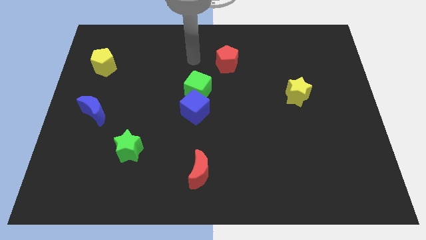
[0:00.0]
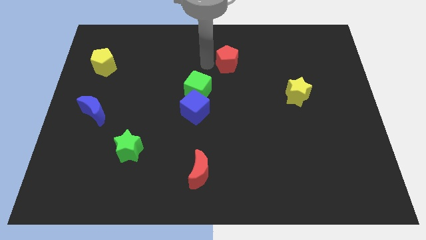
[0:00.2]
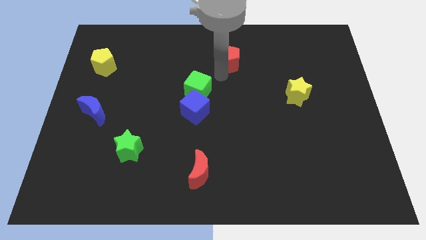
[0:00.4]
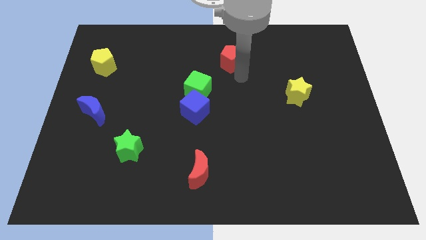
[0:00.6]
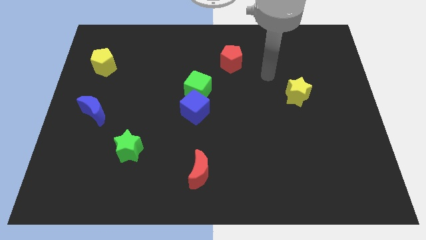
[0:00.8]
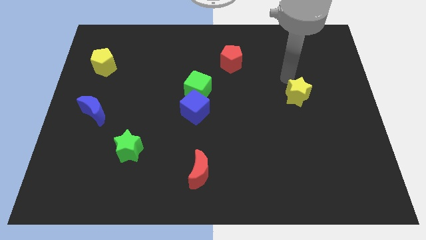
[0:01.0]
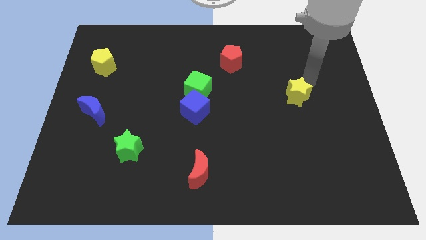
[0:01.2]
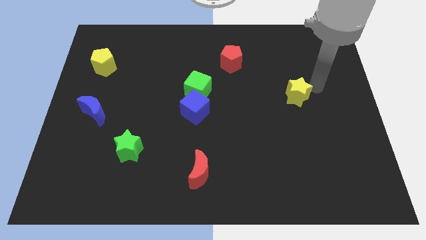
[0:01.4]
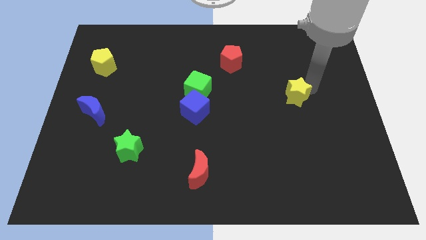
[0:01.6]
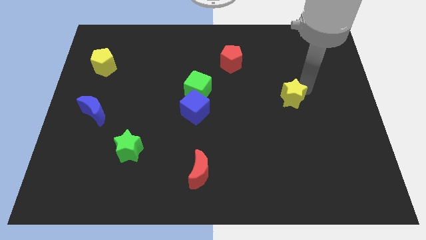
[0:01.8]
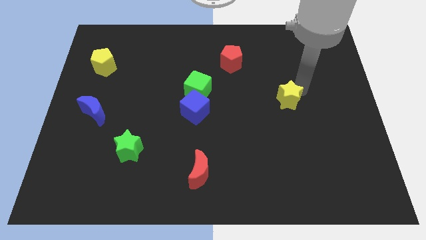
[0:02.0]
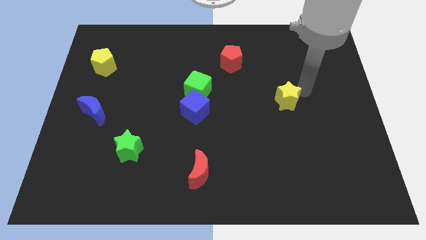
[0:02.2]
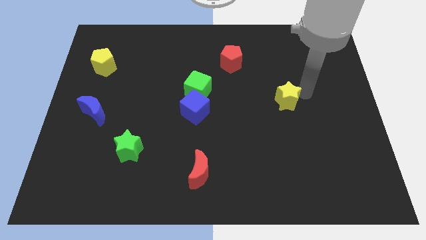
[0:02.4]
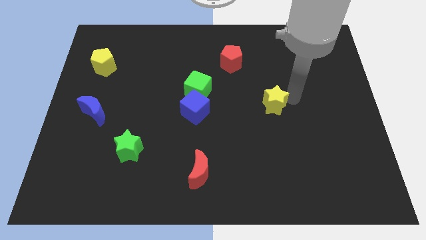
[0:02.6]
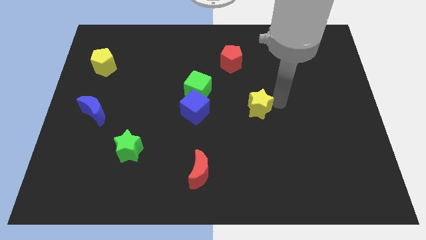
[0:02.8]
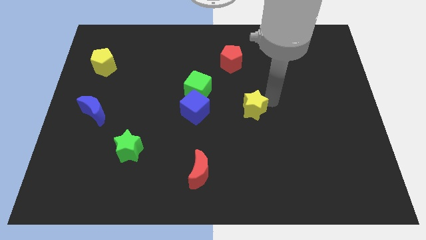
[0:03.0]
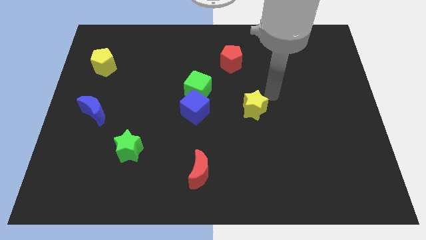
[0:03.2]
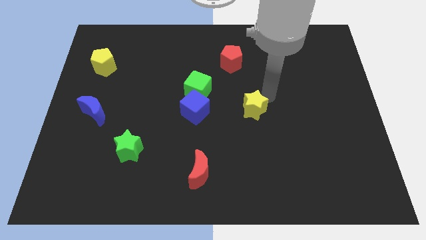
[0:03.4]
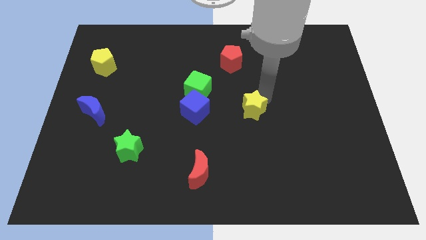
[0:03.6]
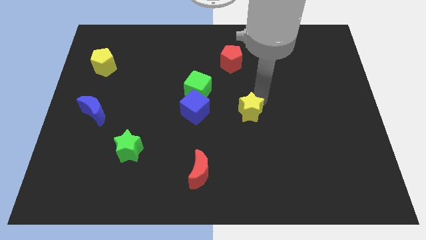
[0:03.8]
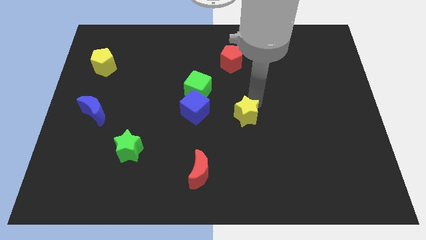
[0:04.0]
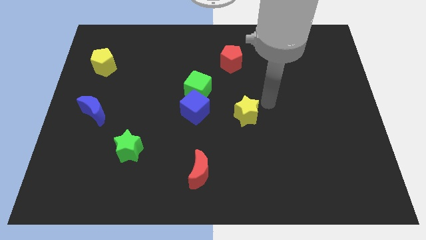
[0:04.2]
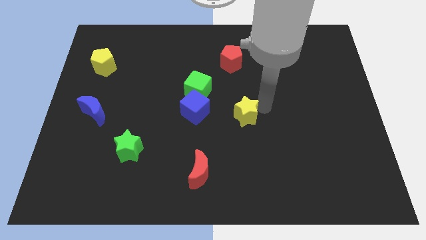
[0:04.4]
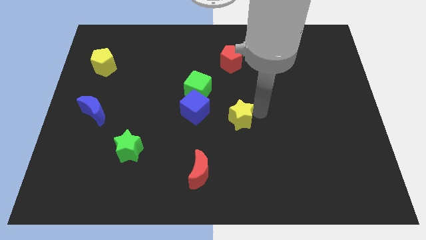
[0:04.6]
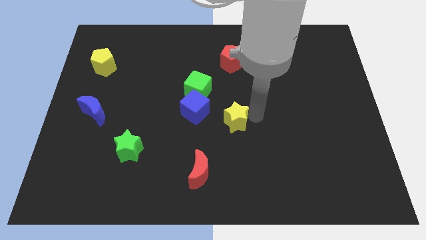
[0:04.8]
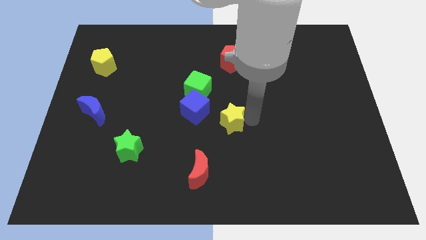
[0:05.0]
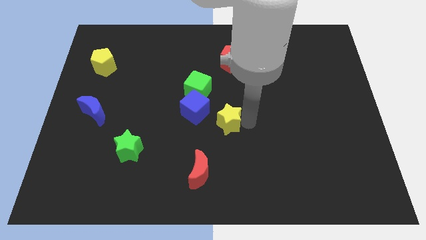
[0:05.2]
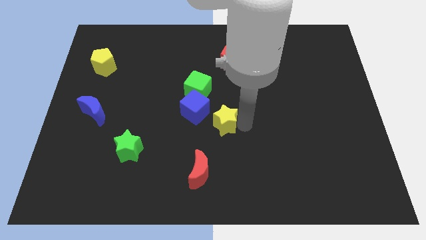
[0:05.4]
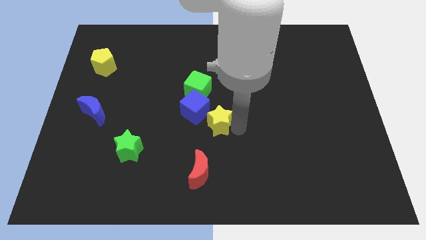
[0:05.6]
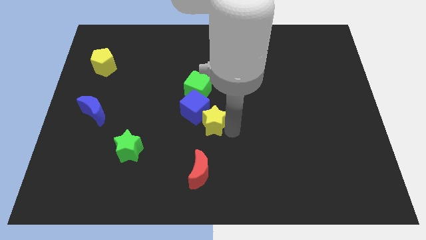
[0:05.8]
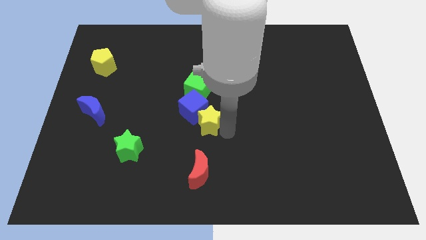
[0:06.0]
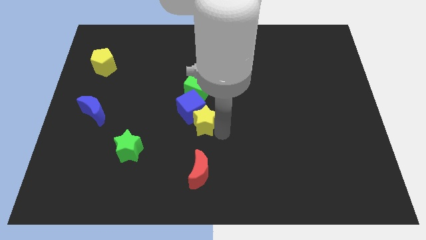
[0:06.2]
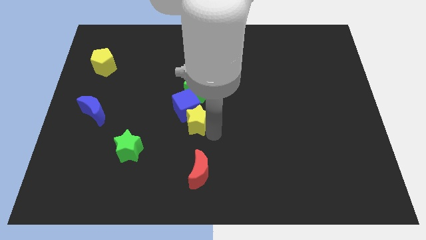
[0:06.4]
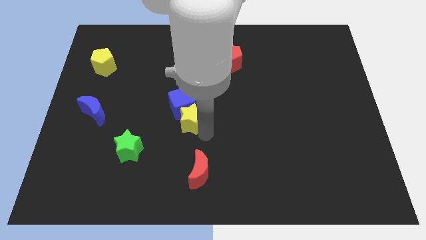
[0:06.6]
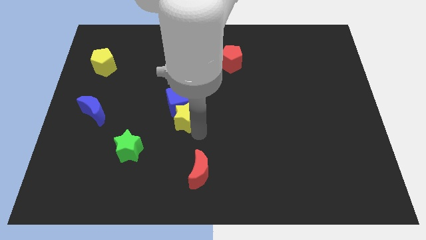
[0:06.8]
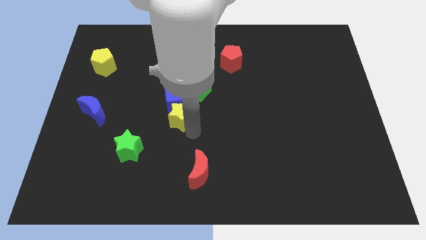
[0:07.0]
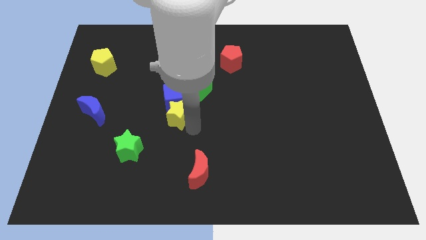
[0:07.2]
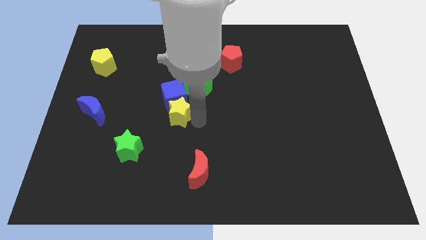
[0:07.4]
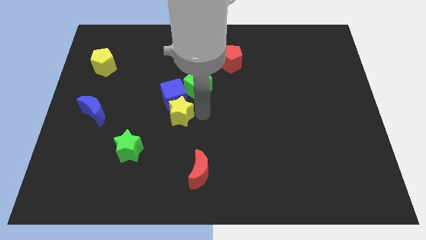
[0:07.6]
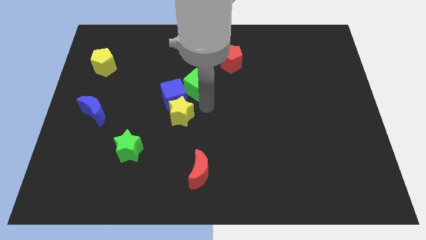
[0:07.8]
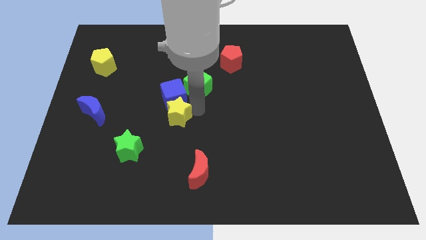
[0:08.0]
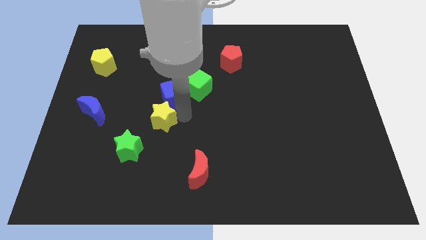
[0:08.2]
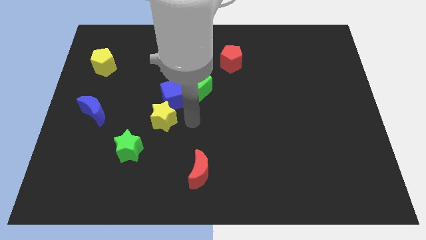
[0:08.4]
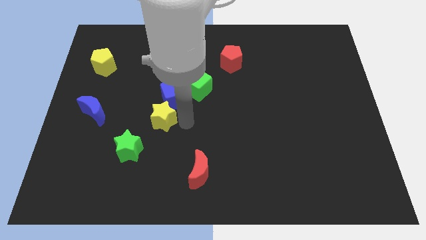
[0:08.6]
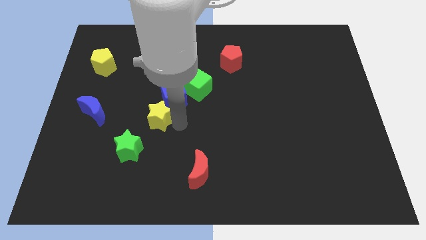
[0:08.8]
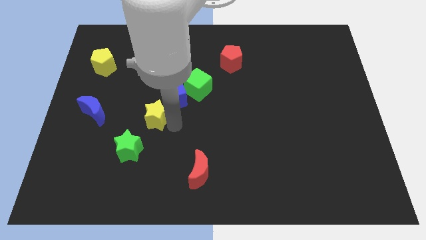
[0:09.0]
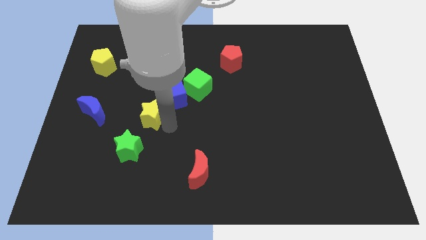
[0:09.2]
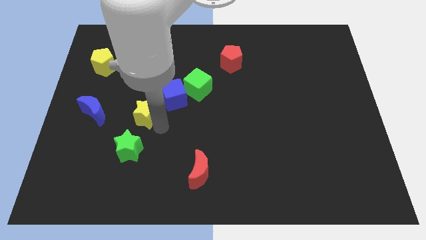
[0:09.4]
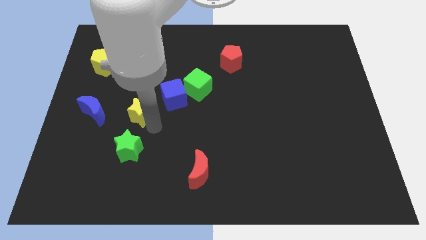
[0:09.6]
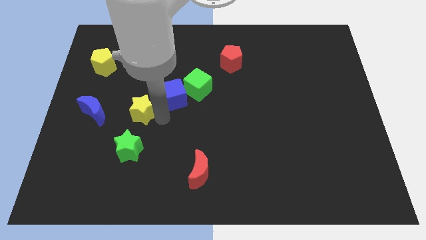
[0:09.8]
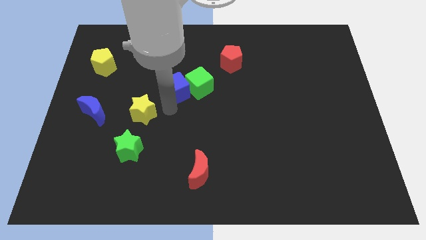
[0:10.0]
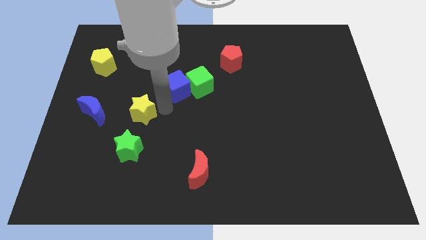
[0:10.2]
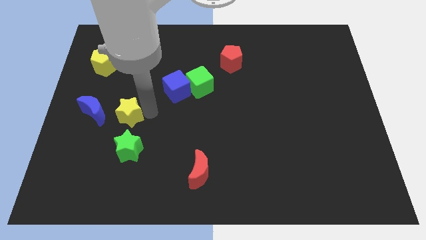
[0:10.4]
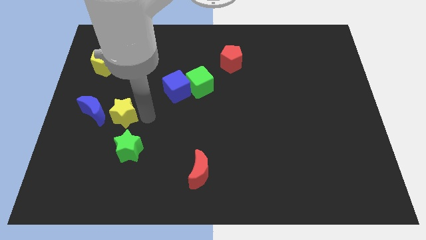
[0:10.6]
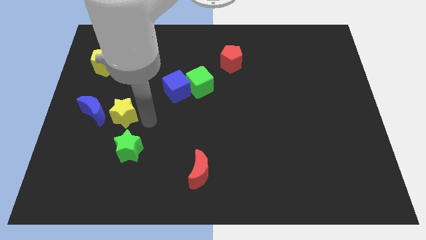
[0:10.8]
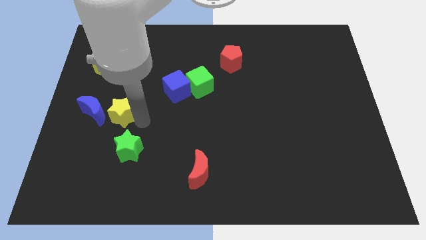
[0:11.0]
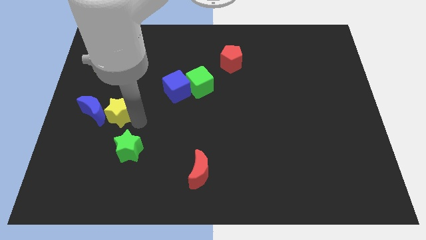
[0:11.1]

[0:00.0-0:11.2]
push the yellow star to the blue moon

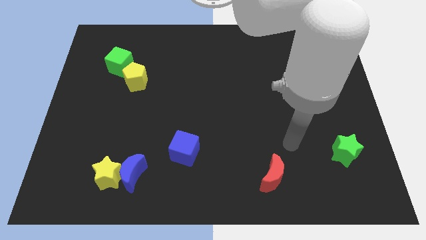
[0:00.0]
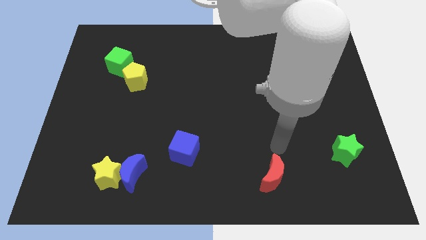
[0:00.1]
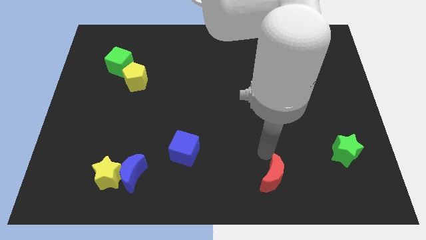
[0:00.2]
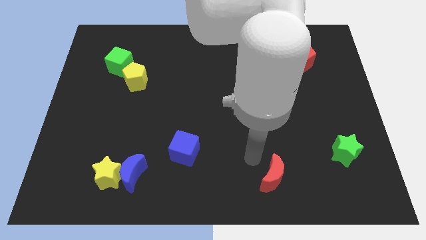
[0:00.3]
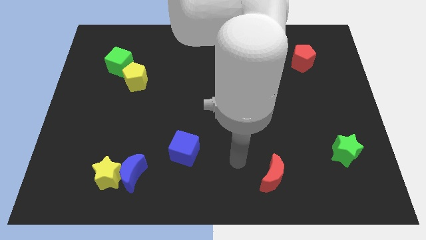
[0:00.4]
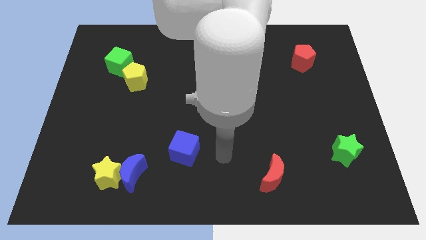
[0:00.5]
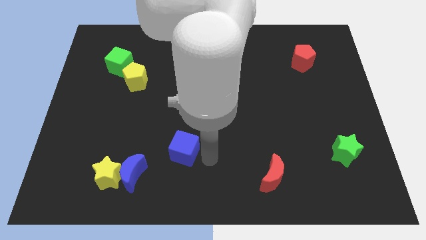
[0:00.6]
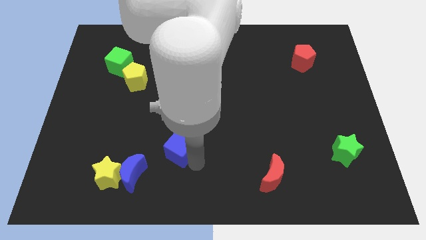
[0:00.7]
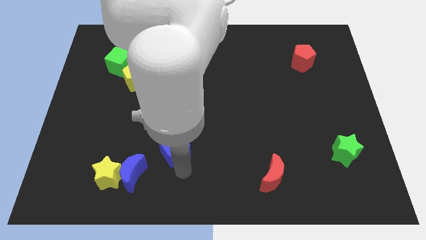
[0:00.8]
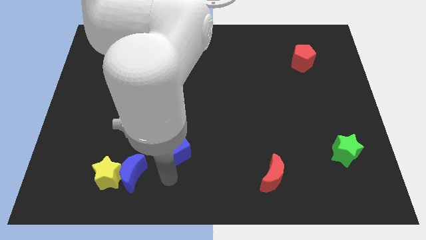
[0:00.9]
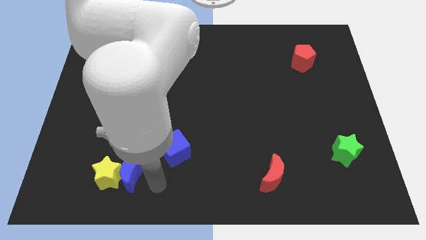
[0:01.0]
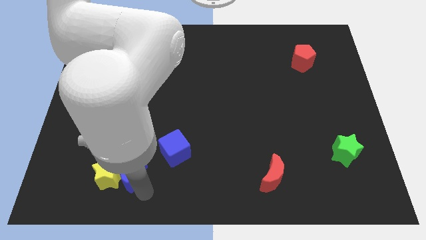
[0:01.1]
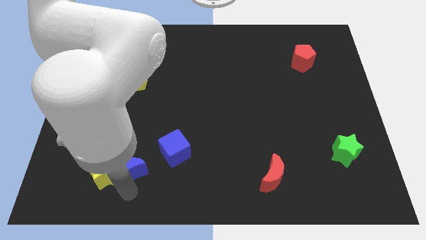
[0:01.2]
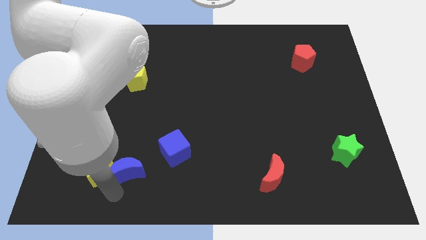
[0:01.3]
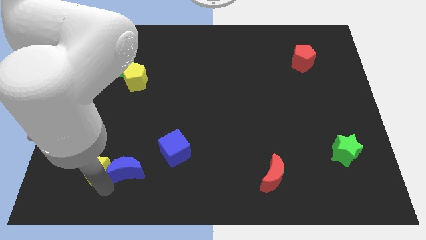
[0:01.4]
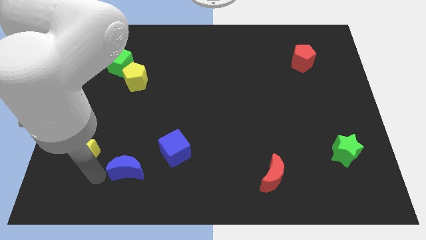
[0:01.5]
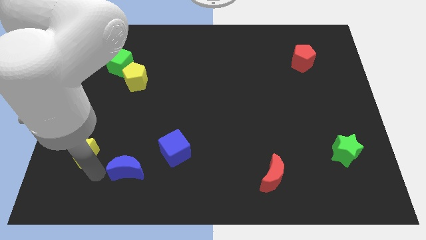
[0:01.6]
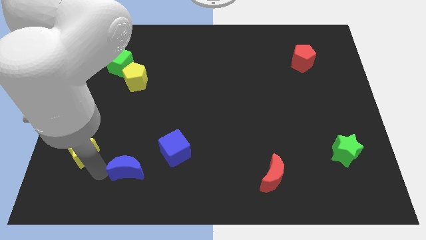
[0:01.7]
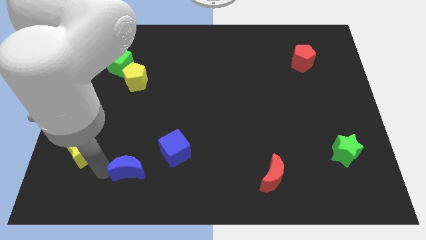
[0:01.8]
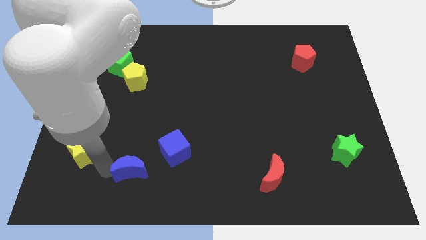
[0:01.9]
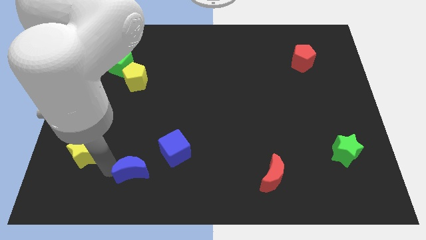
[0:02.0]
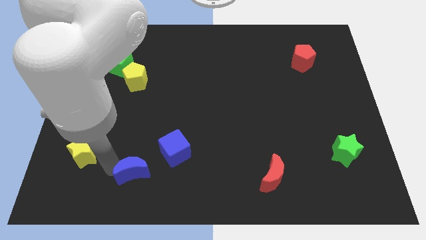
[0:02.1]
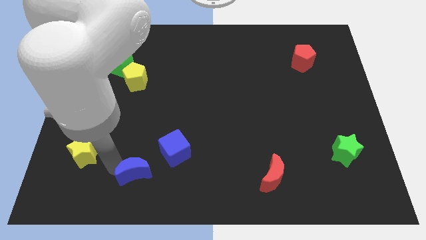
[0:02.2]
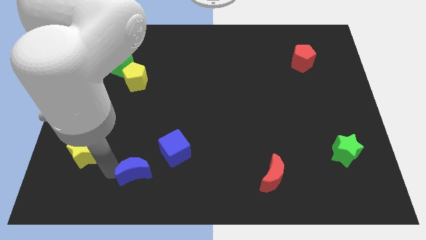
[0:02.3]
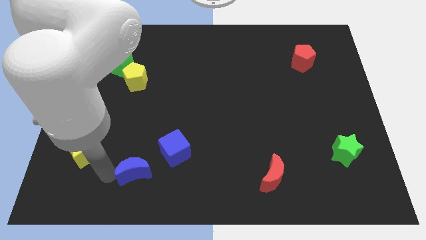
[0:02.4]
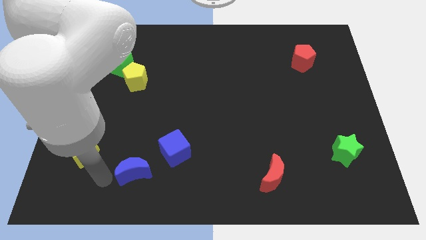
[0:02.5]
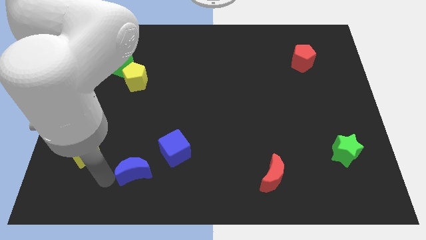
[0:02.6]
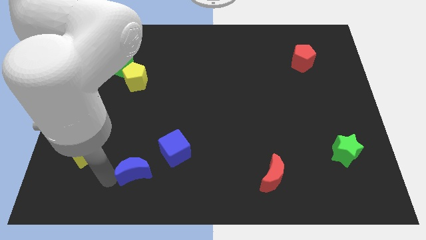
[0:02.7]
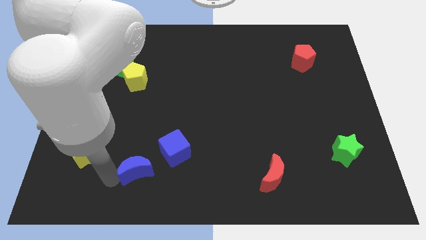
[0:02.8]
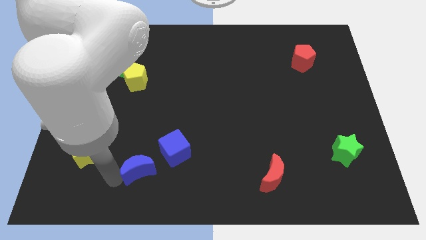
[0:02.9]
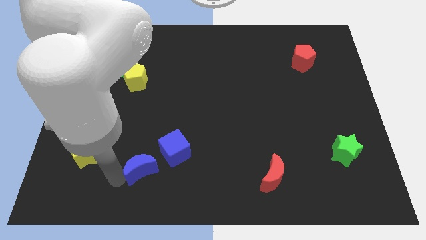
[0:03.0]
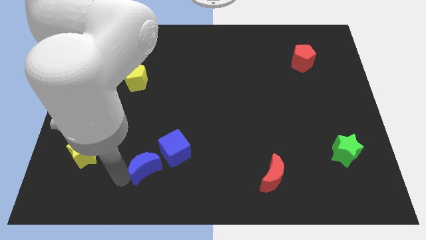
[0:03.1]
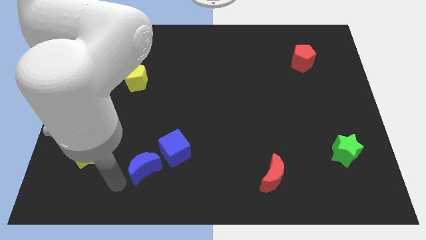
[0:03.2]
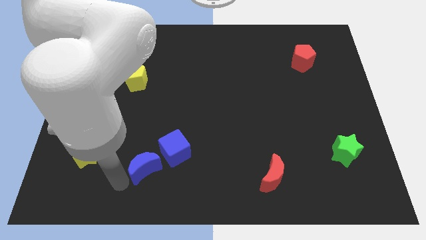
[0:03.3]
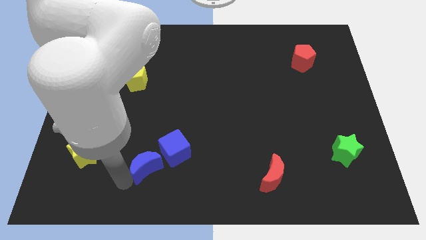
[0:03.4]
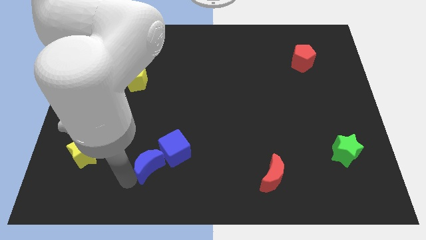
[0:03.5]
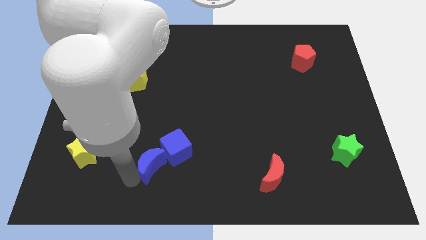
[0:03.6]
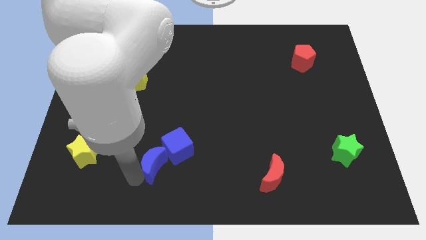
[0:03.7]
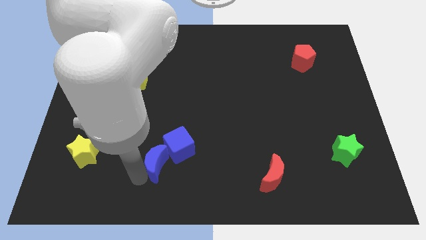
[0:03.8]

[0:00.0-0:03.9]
move the blue moon close to the blue cube
